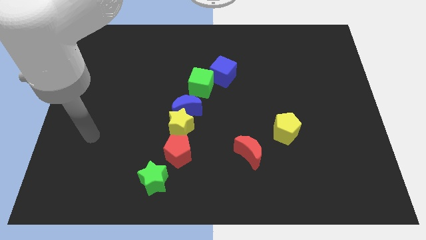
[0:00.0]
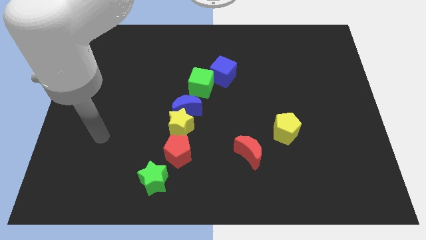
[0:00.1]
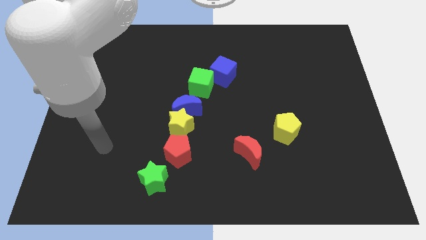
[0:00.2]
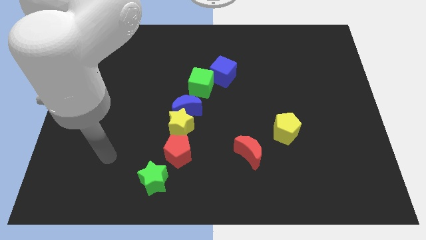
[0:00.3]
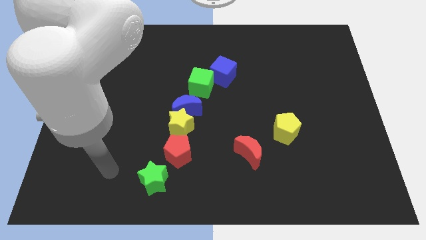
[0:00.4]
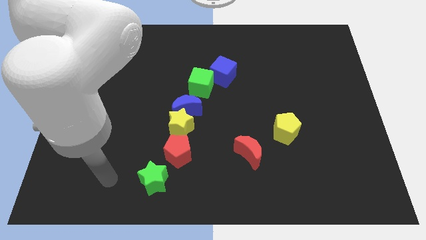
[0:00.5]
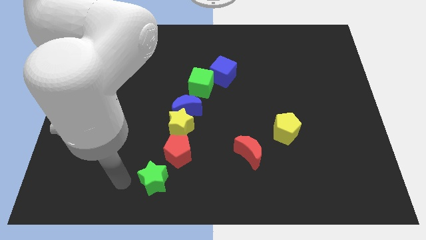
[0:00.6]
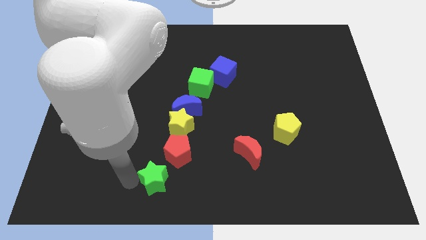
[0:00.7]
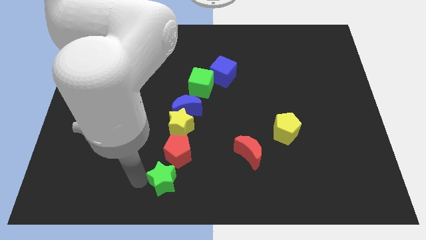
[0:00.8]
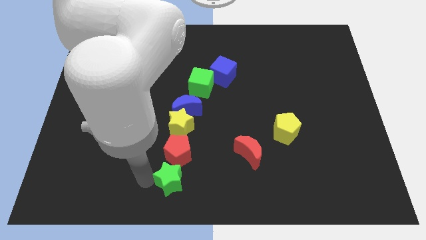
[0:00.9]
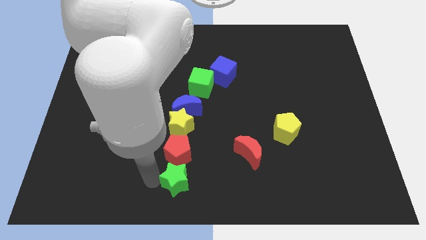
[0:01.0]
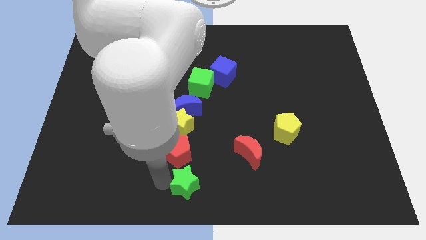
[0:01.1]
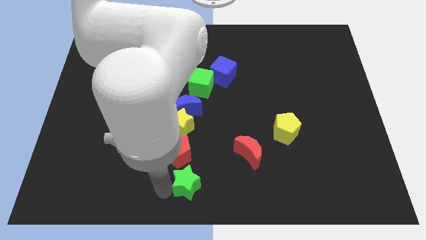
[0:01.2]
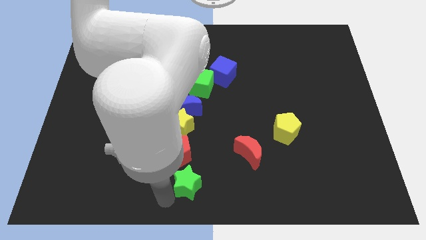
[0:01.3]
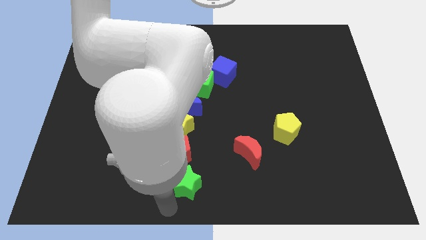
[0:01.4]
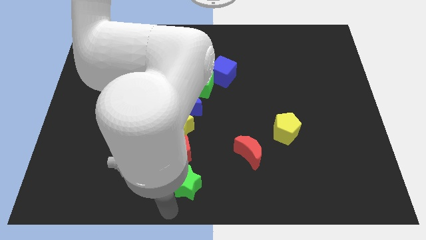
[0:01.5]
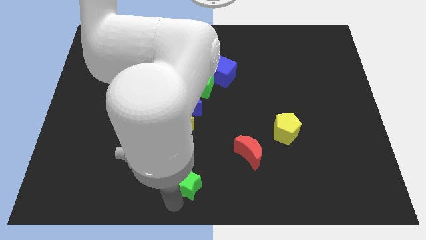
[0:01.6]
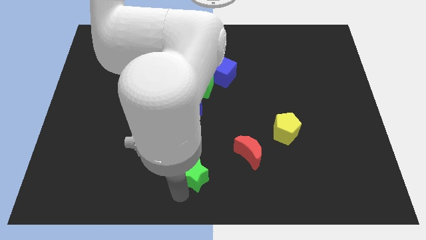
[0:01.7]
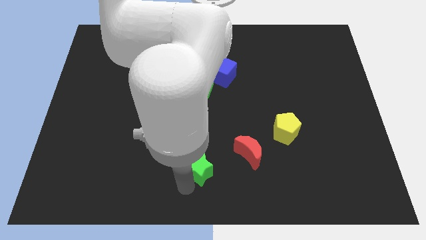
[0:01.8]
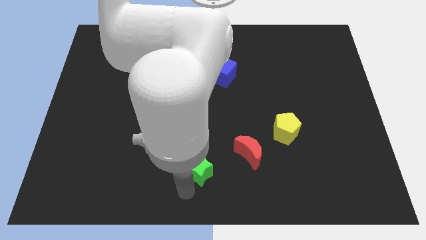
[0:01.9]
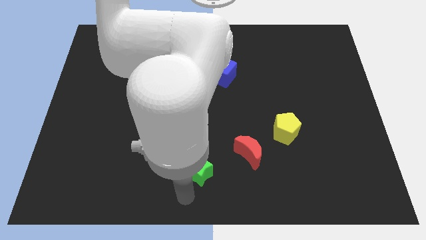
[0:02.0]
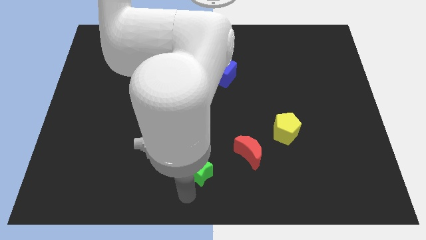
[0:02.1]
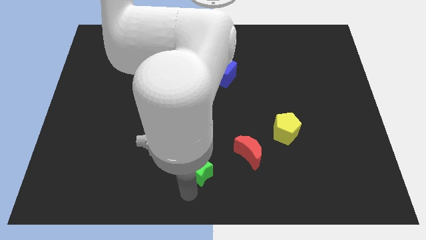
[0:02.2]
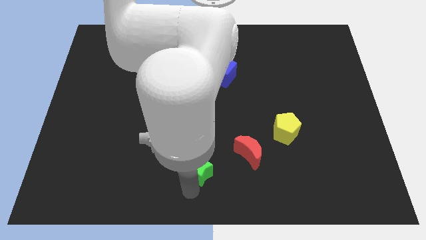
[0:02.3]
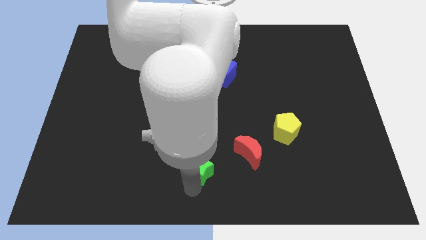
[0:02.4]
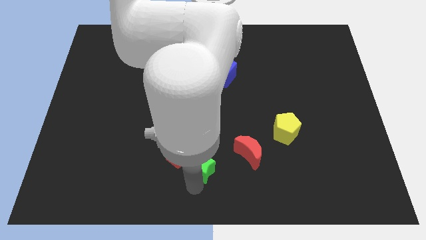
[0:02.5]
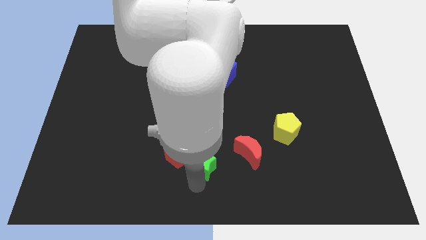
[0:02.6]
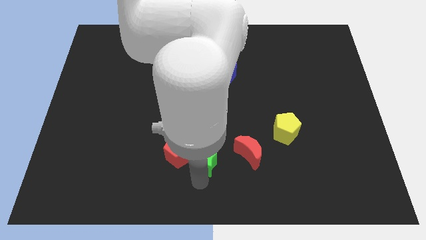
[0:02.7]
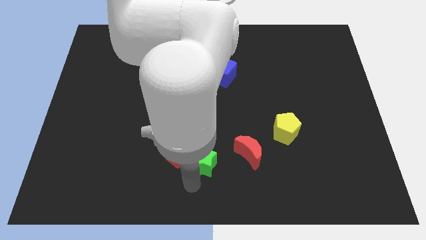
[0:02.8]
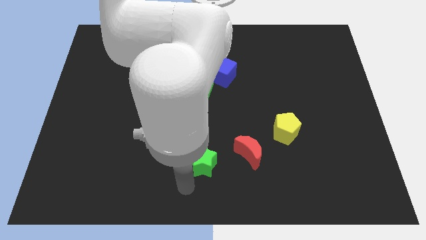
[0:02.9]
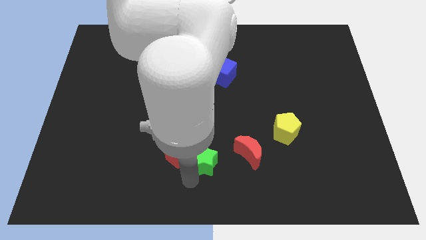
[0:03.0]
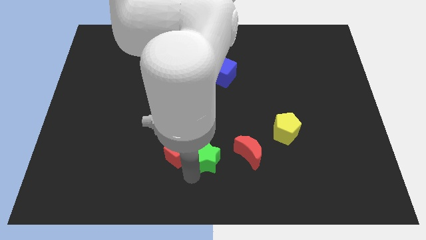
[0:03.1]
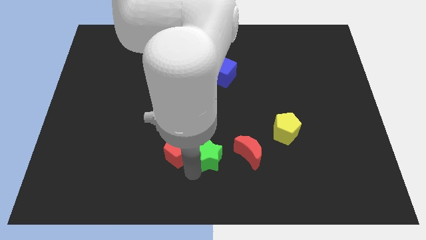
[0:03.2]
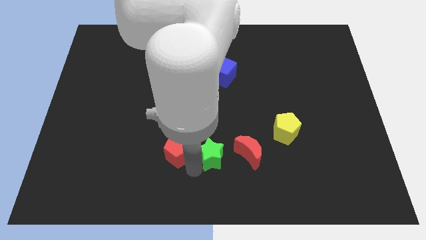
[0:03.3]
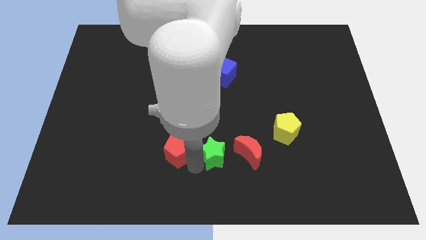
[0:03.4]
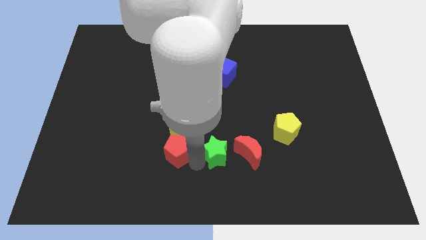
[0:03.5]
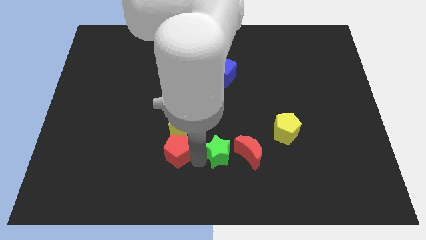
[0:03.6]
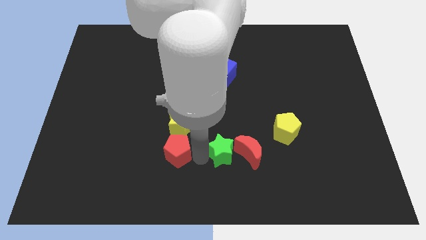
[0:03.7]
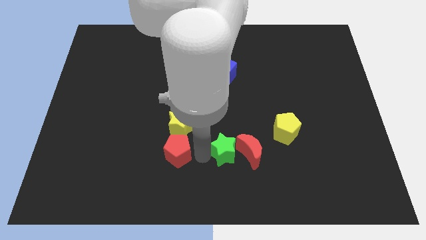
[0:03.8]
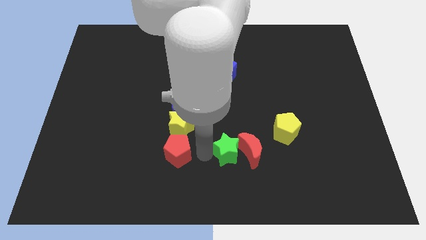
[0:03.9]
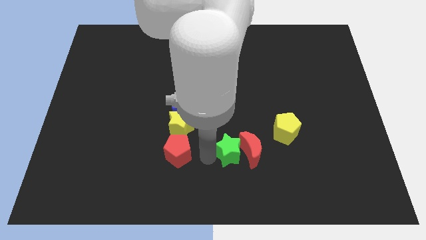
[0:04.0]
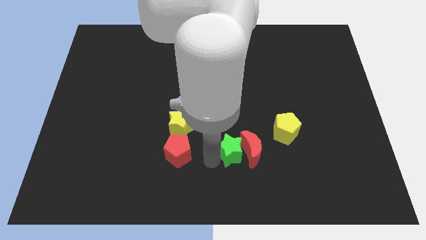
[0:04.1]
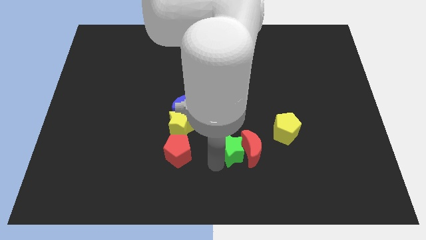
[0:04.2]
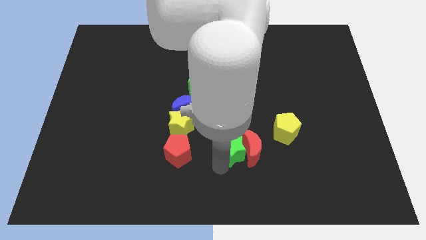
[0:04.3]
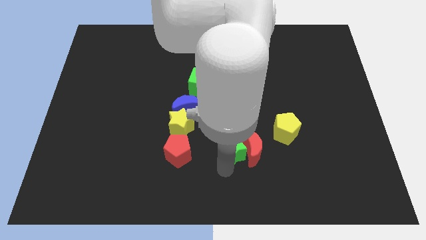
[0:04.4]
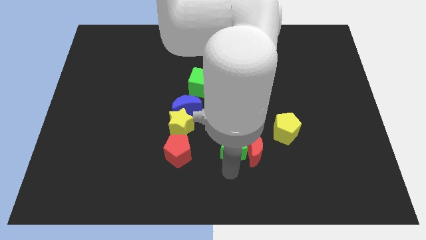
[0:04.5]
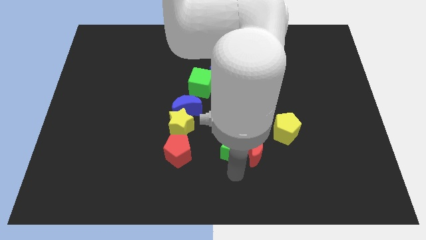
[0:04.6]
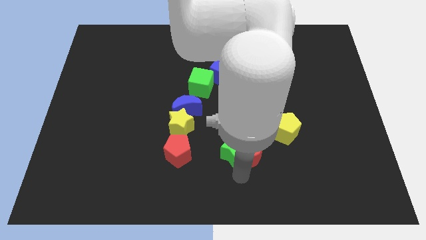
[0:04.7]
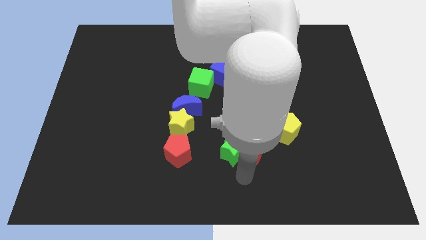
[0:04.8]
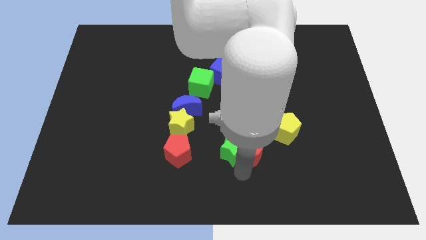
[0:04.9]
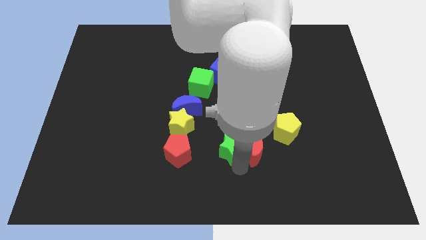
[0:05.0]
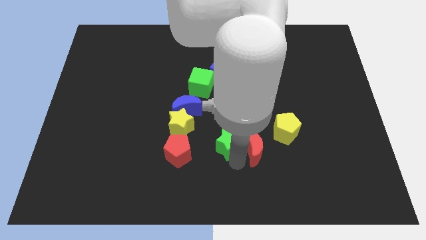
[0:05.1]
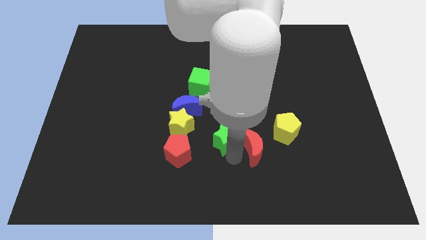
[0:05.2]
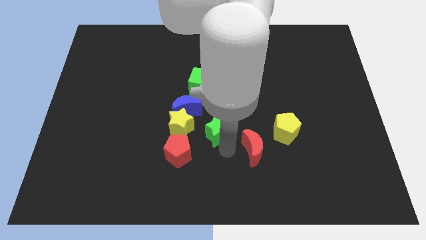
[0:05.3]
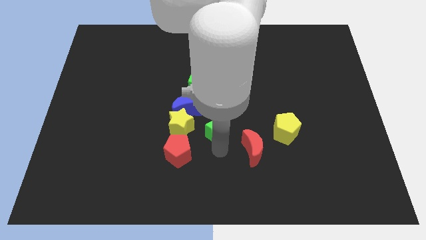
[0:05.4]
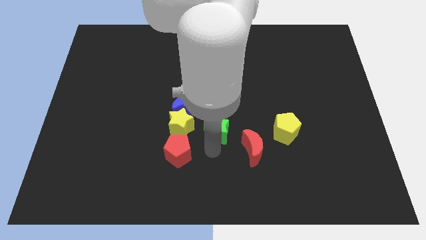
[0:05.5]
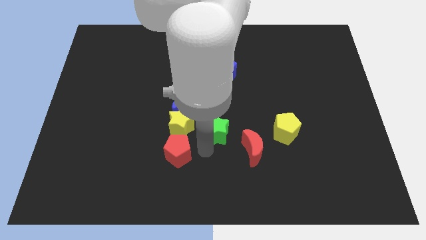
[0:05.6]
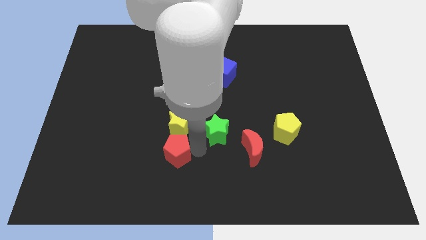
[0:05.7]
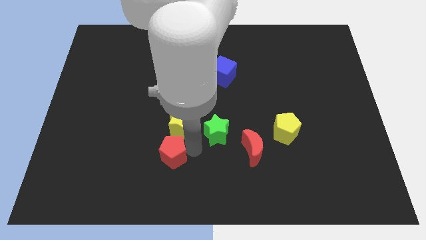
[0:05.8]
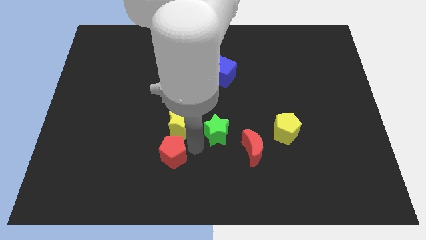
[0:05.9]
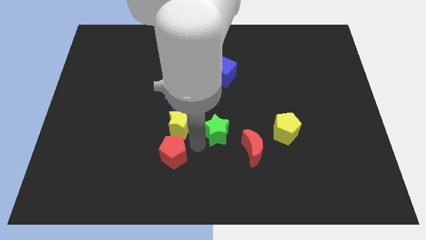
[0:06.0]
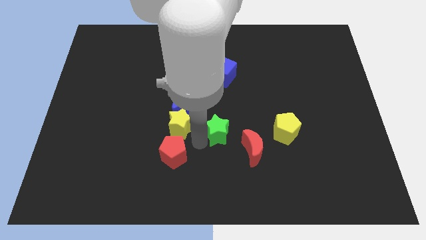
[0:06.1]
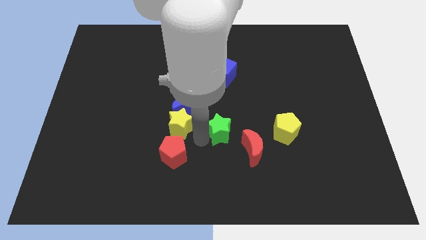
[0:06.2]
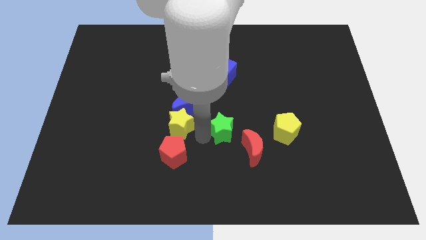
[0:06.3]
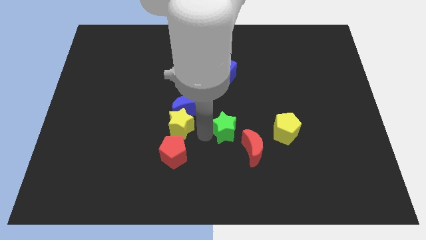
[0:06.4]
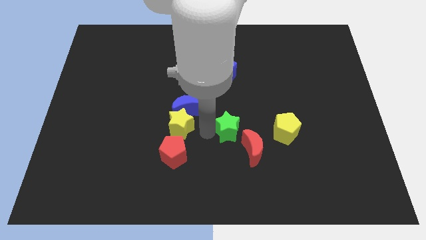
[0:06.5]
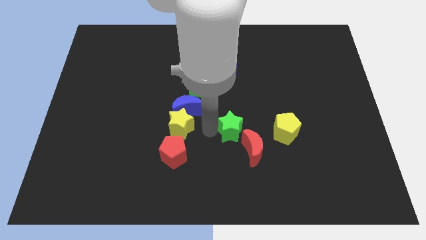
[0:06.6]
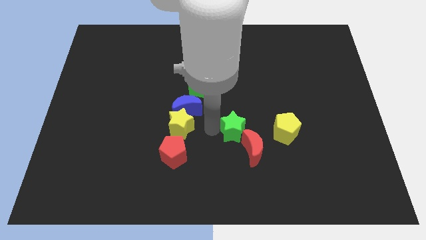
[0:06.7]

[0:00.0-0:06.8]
push the green star upwards and right diagonally

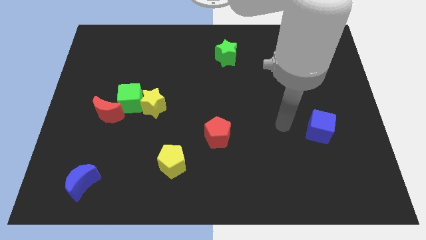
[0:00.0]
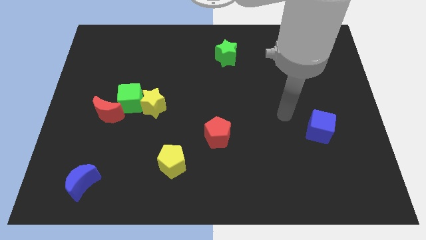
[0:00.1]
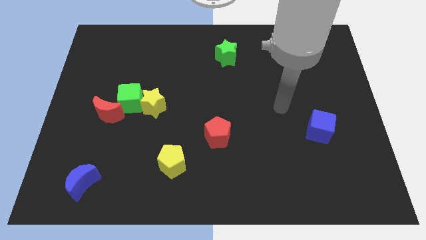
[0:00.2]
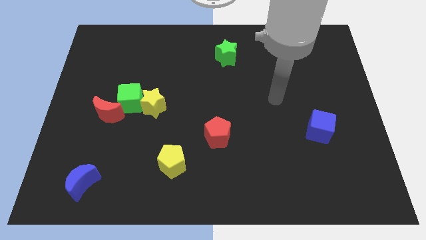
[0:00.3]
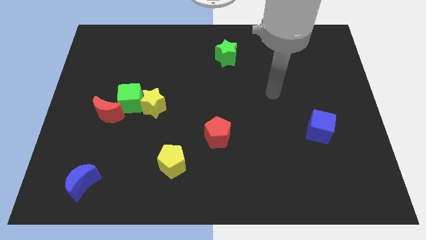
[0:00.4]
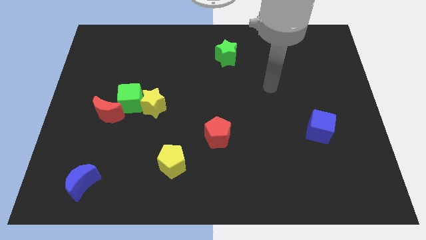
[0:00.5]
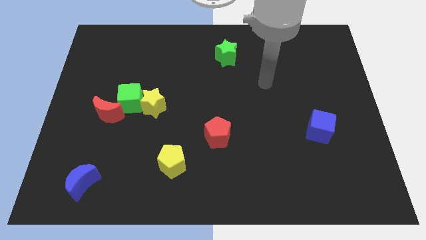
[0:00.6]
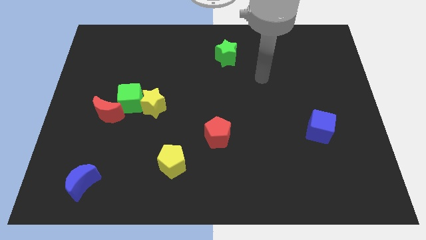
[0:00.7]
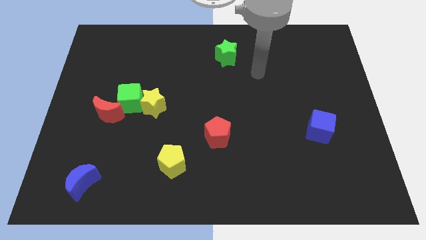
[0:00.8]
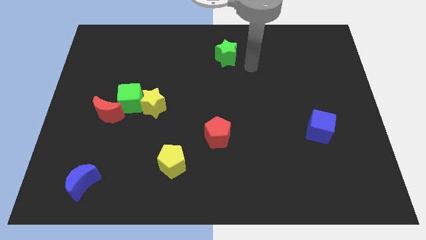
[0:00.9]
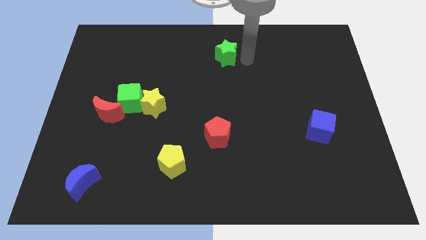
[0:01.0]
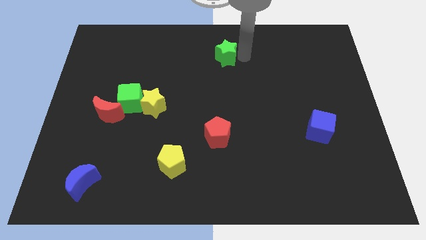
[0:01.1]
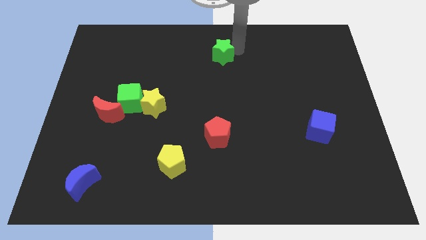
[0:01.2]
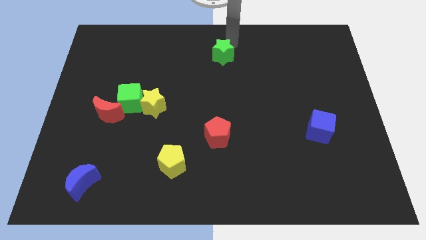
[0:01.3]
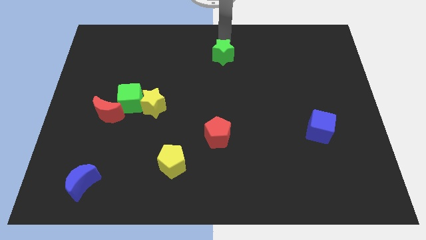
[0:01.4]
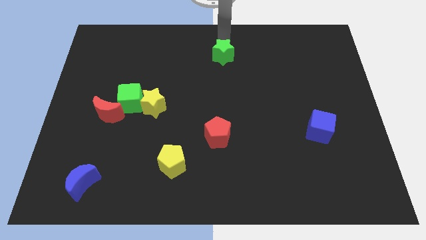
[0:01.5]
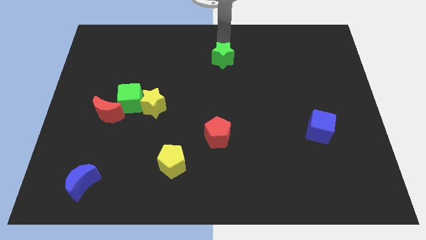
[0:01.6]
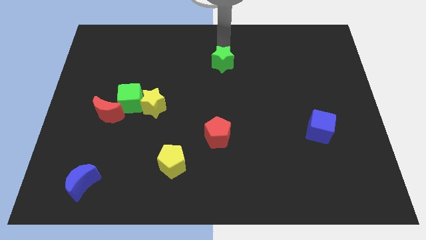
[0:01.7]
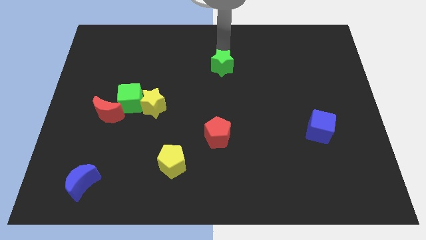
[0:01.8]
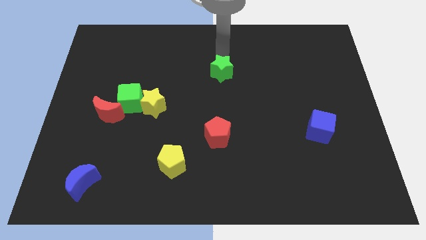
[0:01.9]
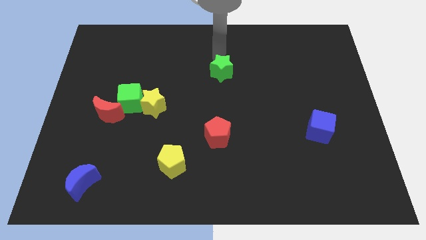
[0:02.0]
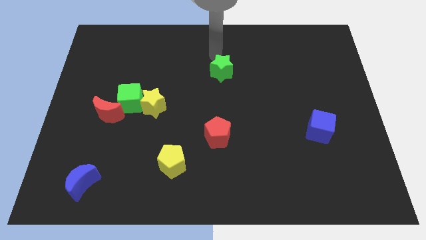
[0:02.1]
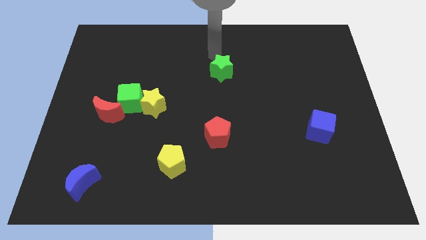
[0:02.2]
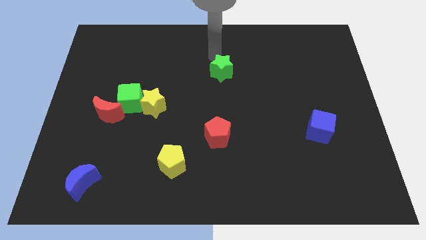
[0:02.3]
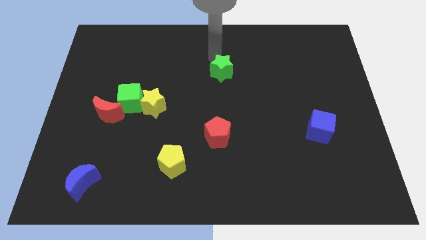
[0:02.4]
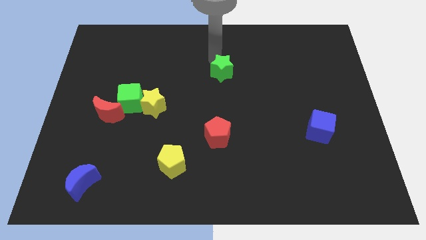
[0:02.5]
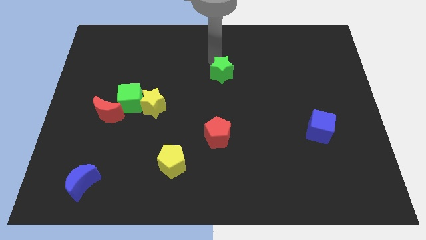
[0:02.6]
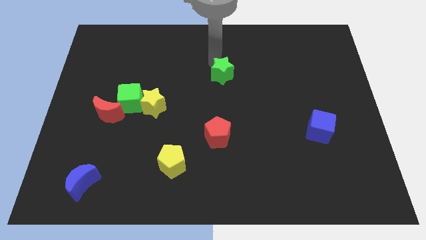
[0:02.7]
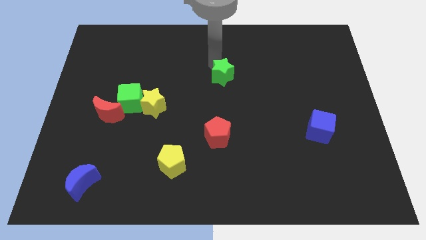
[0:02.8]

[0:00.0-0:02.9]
slightly slide the green star downwards
